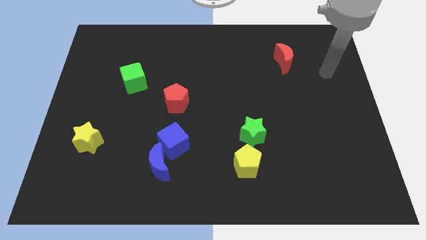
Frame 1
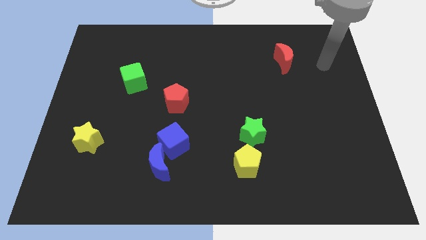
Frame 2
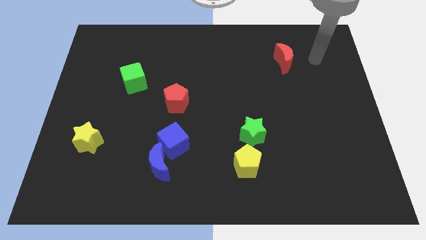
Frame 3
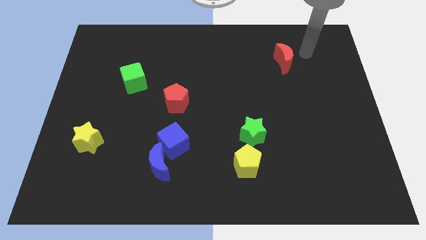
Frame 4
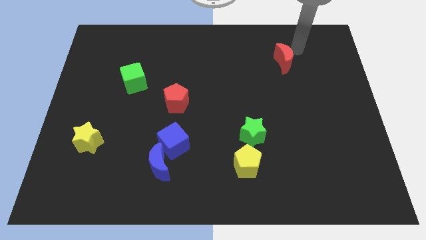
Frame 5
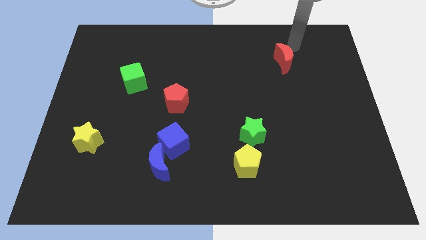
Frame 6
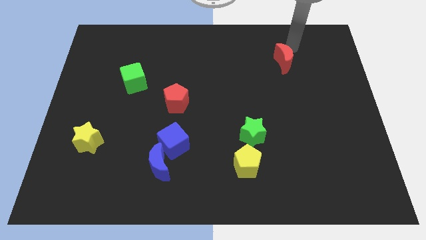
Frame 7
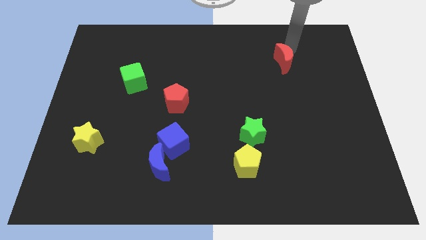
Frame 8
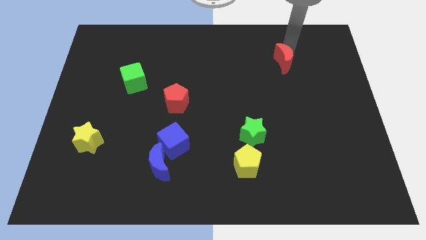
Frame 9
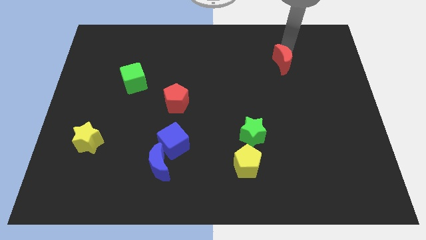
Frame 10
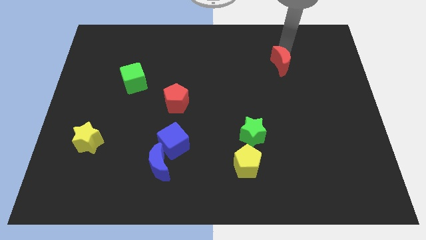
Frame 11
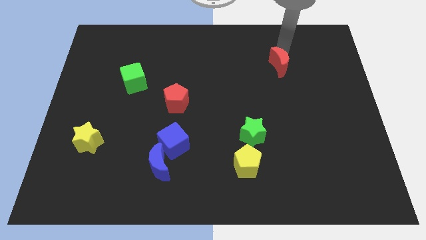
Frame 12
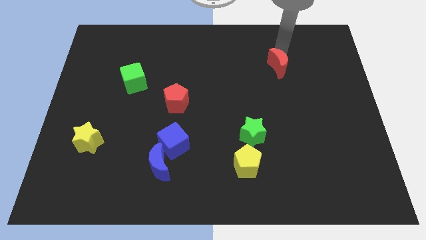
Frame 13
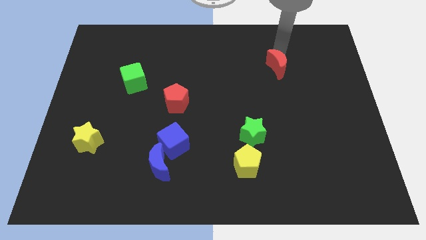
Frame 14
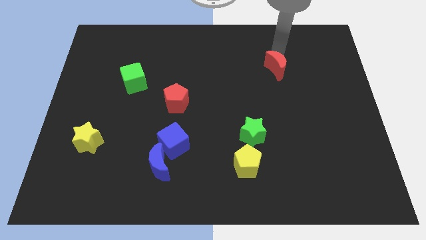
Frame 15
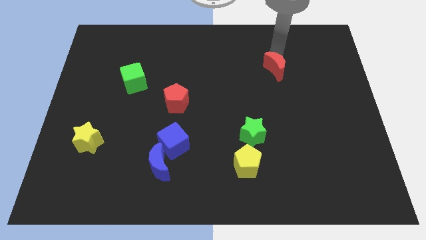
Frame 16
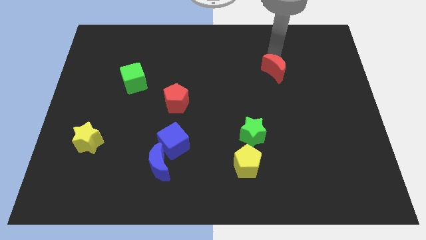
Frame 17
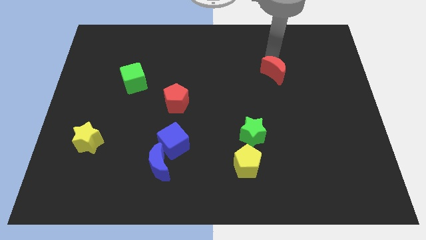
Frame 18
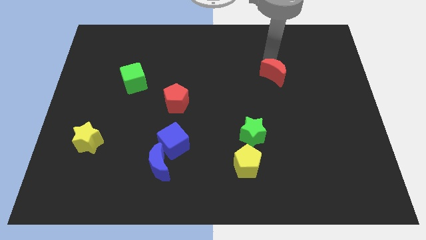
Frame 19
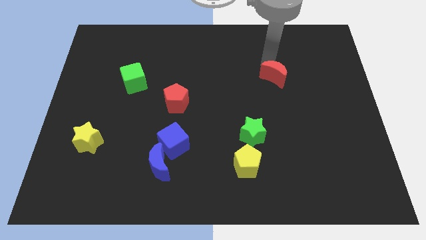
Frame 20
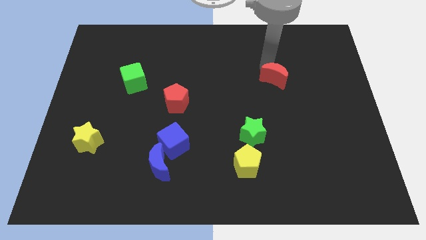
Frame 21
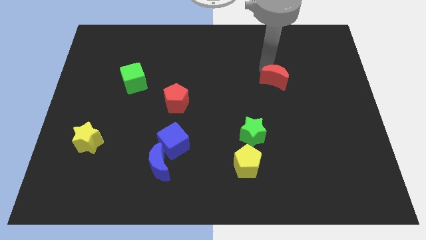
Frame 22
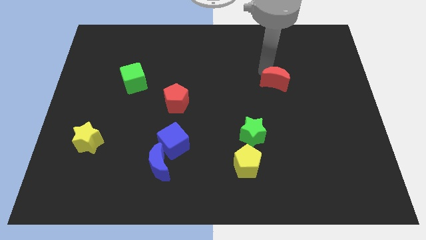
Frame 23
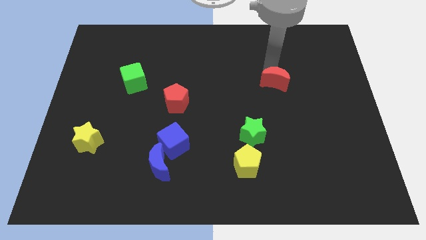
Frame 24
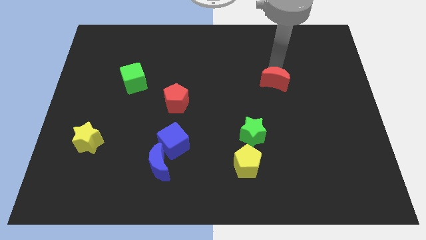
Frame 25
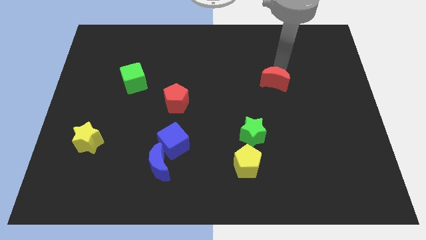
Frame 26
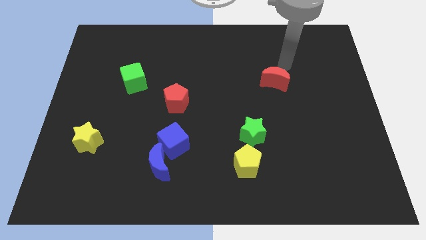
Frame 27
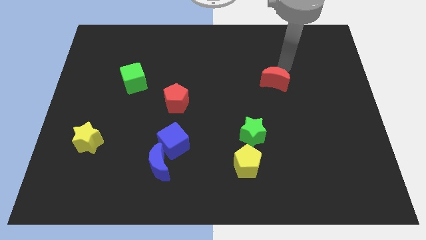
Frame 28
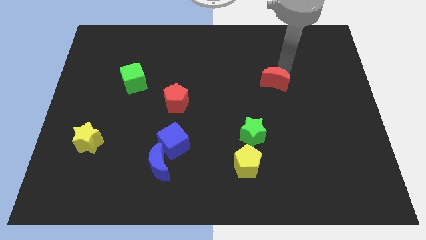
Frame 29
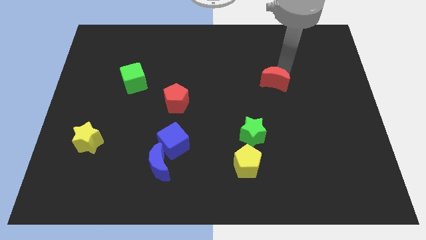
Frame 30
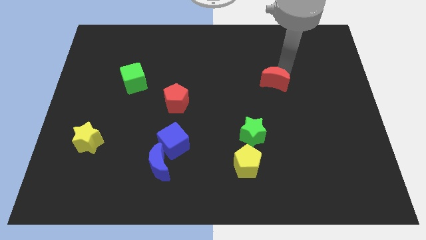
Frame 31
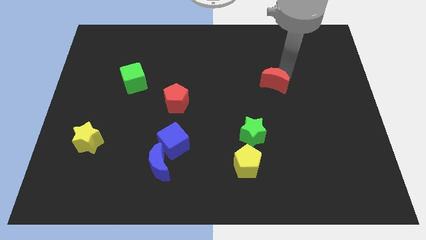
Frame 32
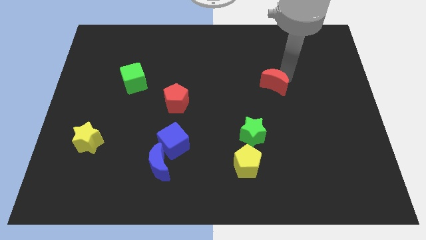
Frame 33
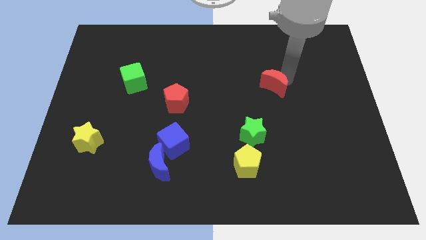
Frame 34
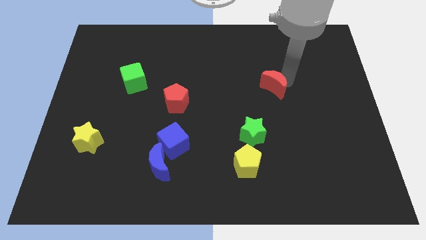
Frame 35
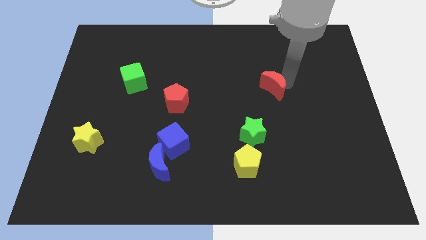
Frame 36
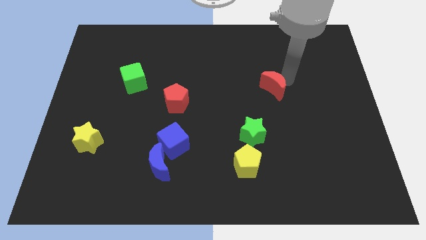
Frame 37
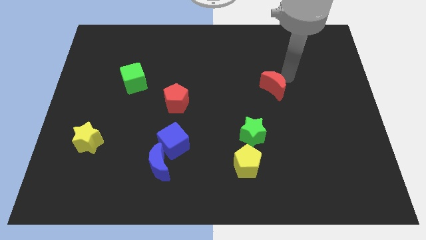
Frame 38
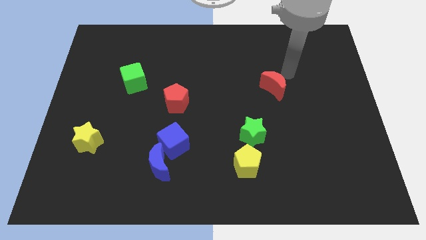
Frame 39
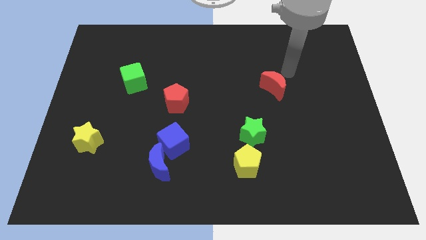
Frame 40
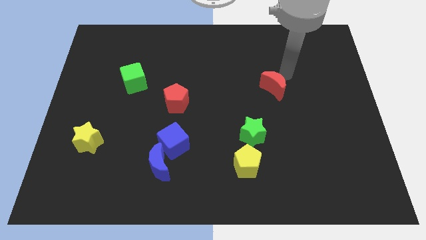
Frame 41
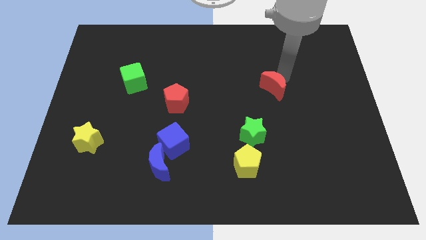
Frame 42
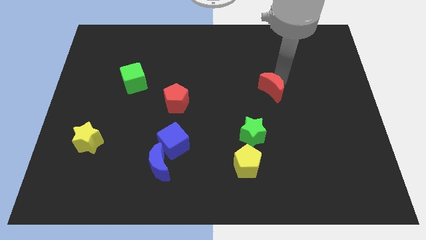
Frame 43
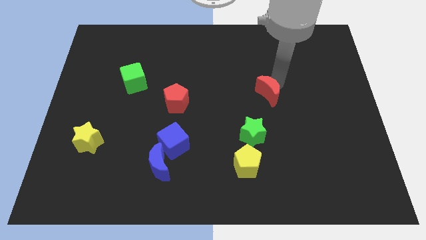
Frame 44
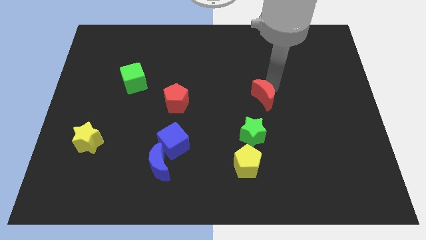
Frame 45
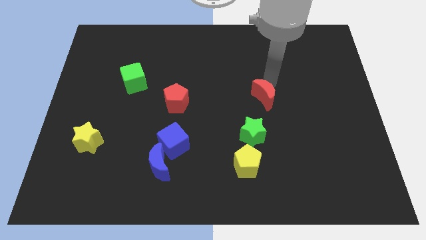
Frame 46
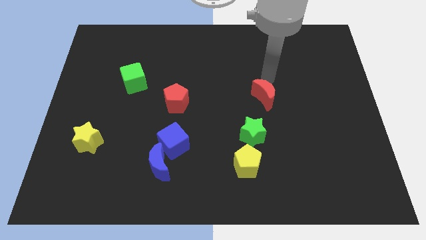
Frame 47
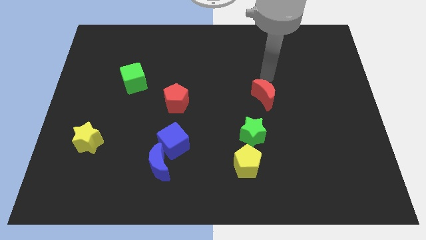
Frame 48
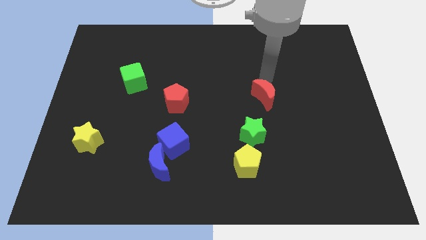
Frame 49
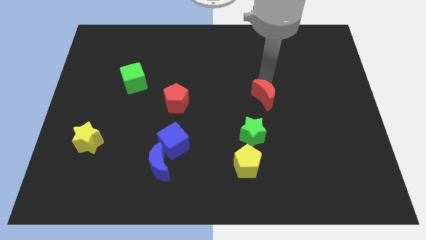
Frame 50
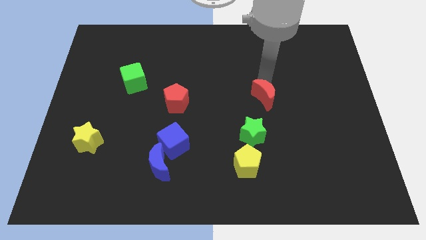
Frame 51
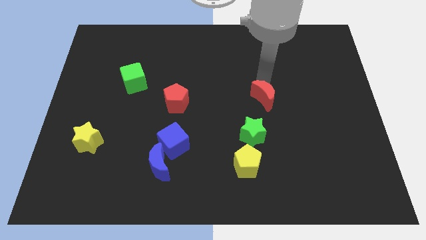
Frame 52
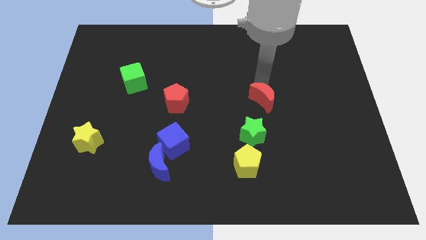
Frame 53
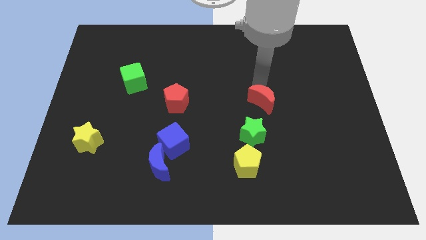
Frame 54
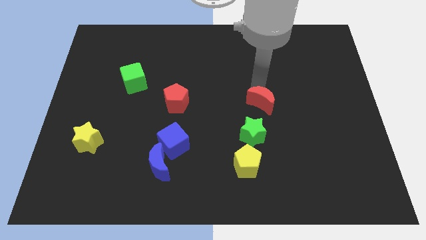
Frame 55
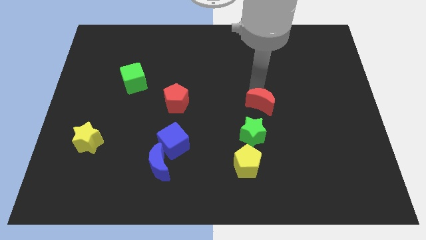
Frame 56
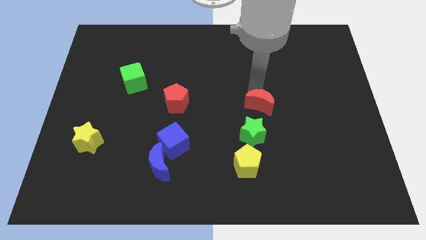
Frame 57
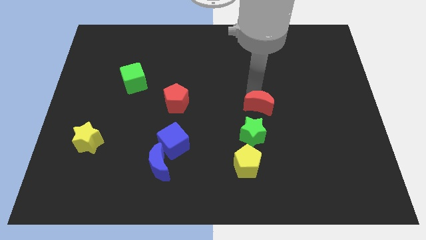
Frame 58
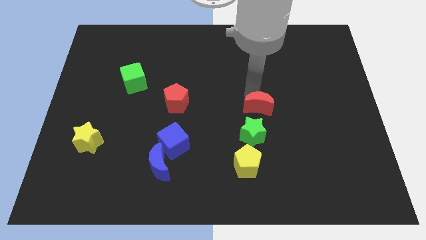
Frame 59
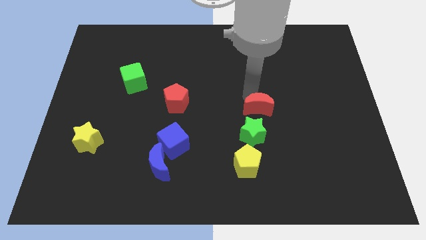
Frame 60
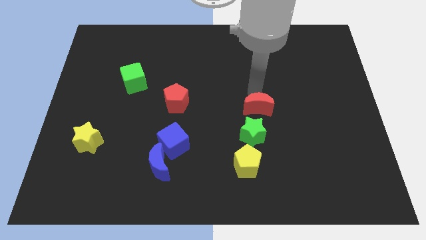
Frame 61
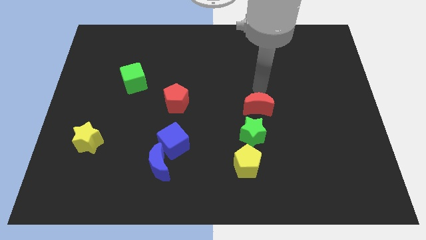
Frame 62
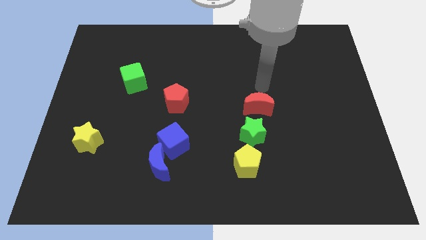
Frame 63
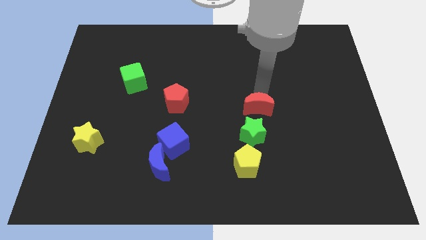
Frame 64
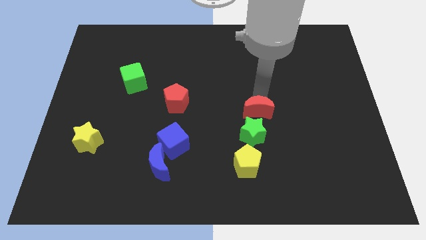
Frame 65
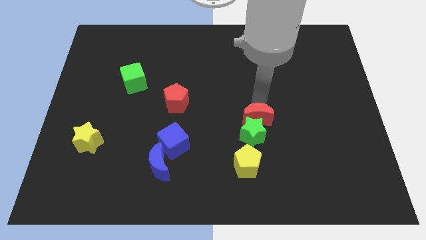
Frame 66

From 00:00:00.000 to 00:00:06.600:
move the red moon close to the green star
